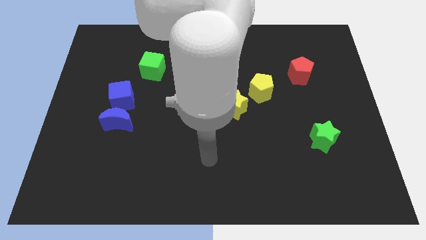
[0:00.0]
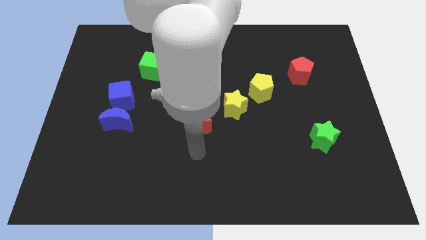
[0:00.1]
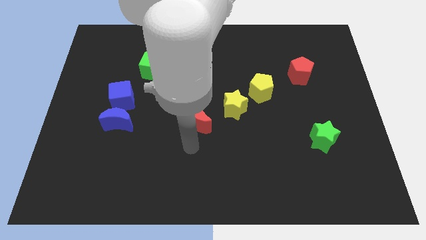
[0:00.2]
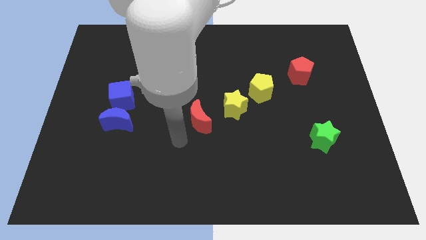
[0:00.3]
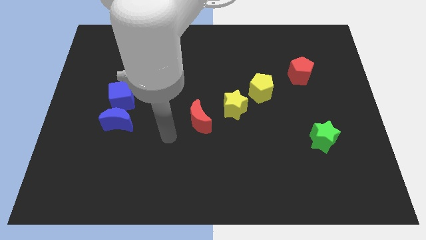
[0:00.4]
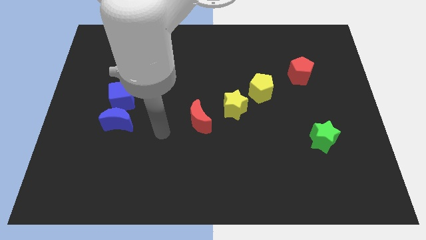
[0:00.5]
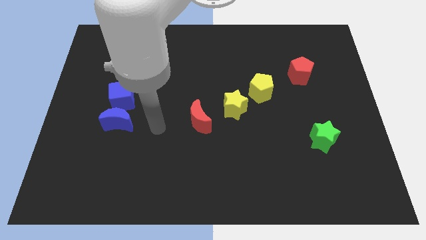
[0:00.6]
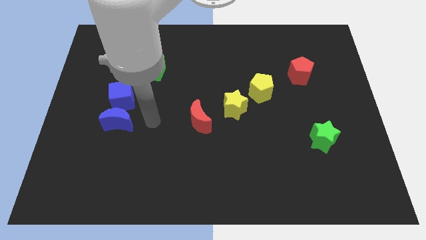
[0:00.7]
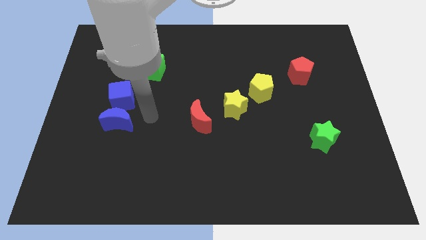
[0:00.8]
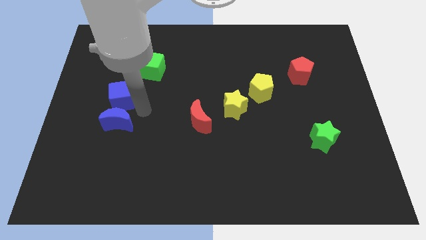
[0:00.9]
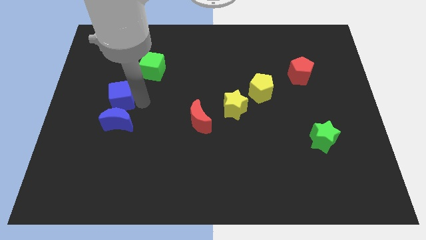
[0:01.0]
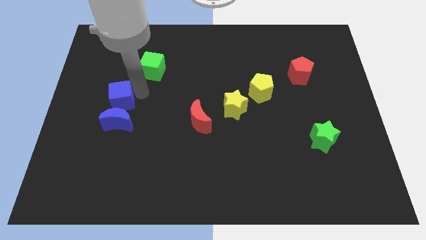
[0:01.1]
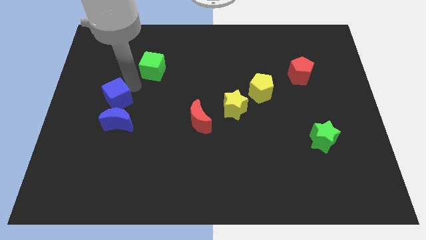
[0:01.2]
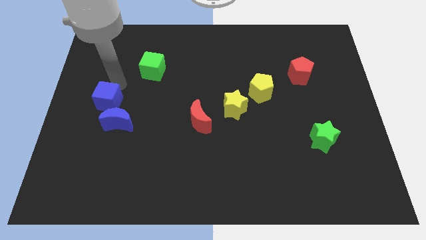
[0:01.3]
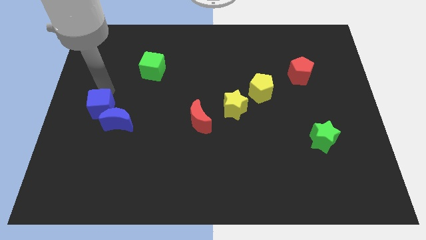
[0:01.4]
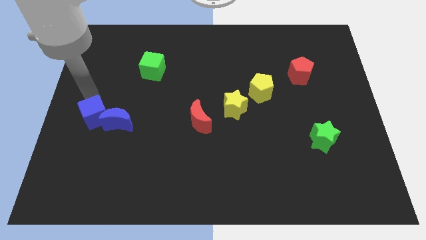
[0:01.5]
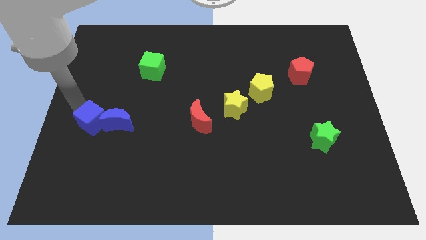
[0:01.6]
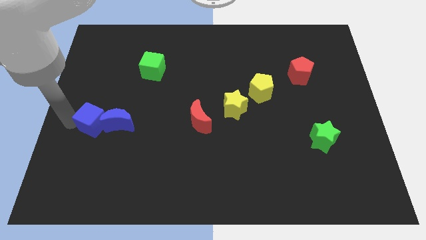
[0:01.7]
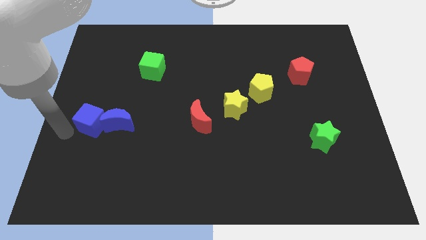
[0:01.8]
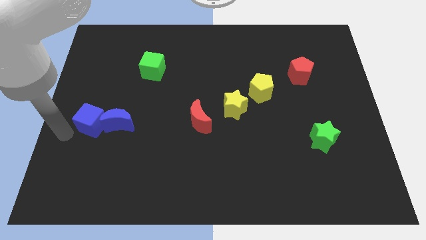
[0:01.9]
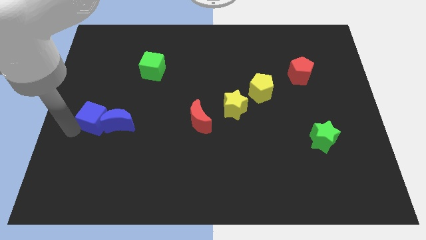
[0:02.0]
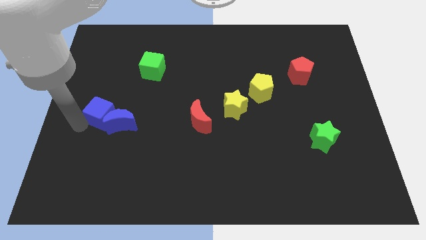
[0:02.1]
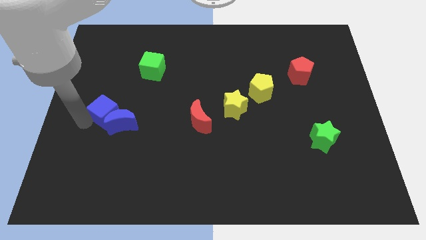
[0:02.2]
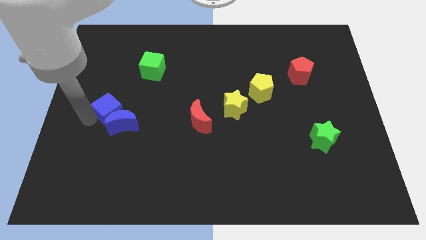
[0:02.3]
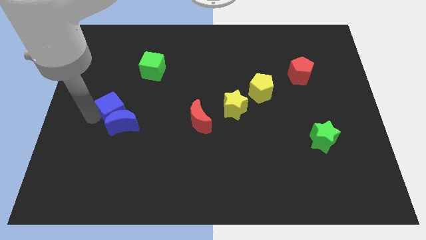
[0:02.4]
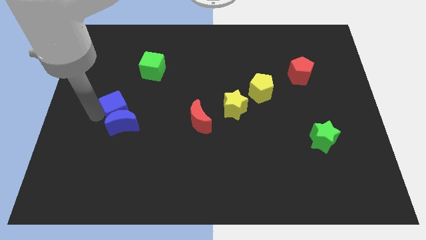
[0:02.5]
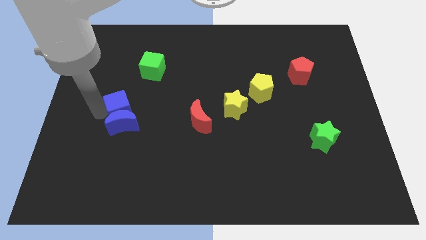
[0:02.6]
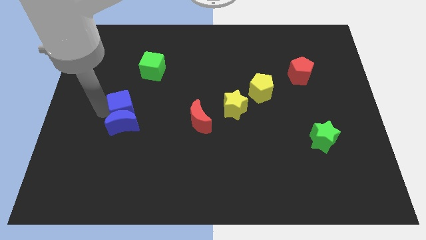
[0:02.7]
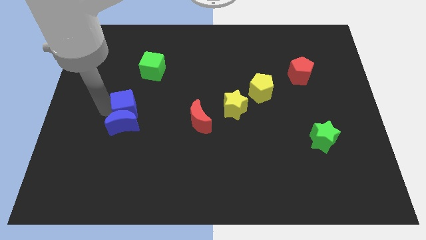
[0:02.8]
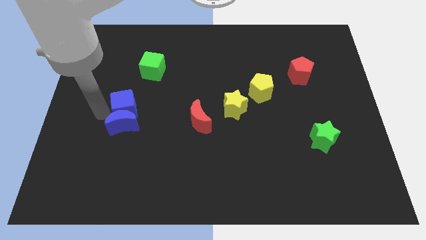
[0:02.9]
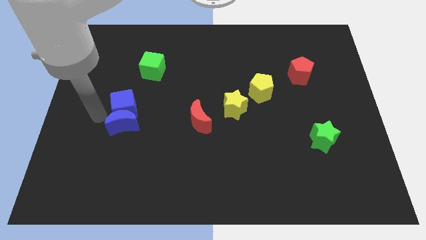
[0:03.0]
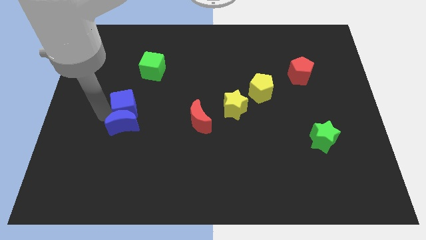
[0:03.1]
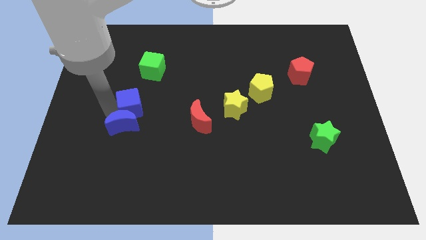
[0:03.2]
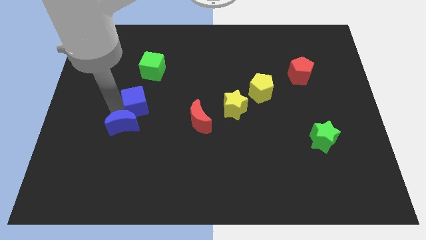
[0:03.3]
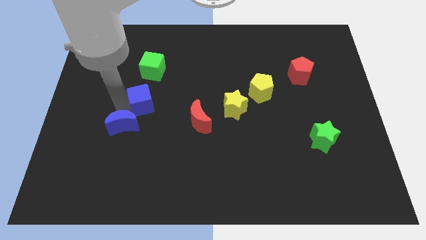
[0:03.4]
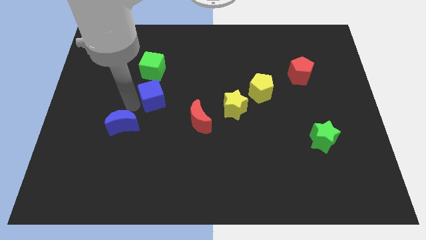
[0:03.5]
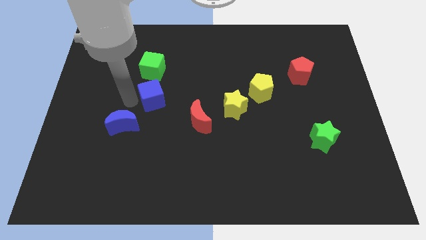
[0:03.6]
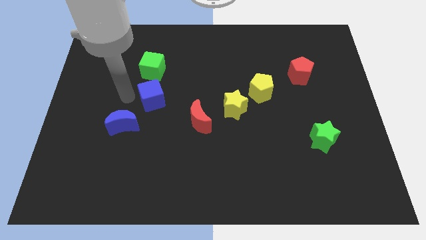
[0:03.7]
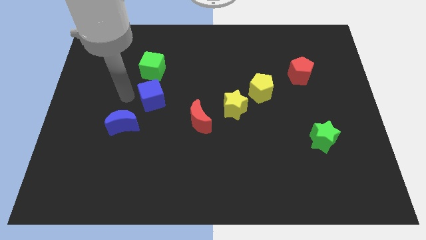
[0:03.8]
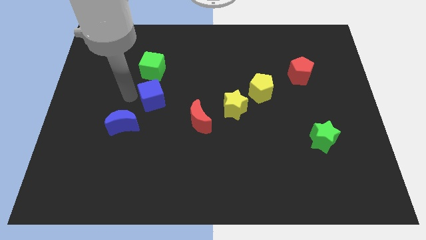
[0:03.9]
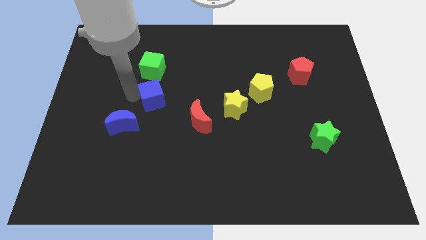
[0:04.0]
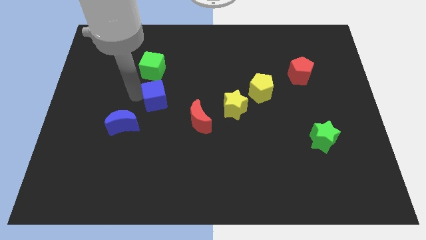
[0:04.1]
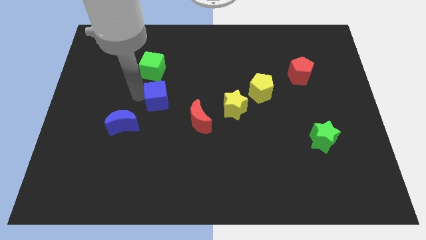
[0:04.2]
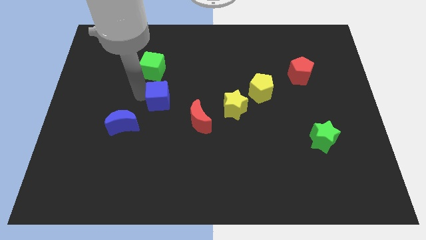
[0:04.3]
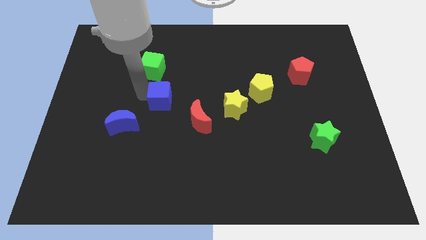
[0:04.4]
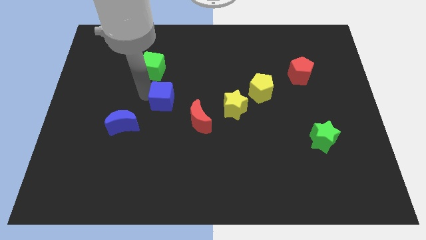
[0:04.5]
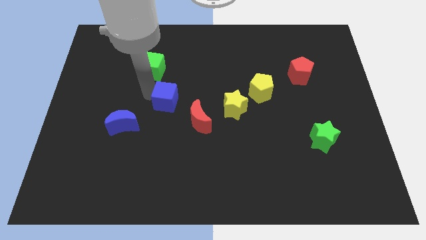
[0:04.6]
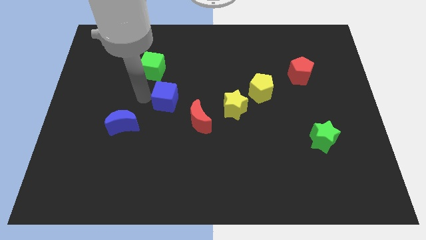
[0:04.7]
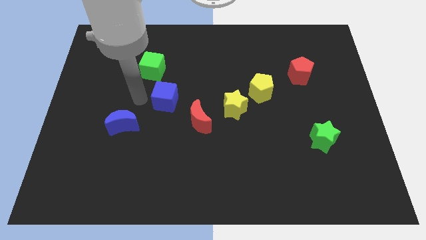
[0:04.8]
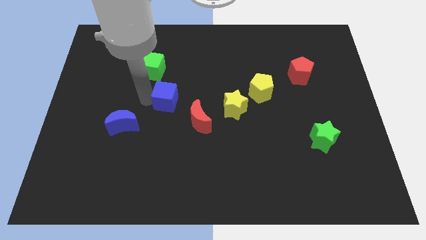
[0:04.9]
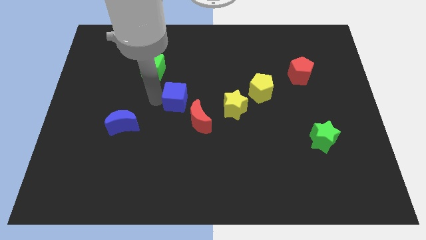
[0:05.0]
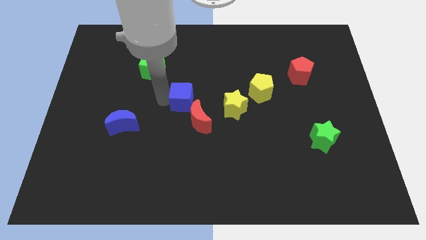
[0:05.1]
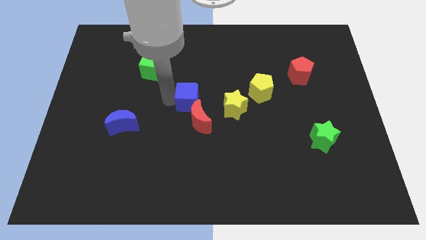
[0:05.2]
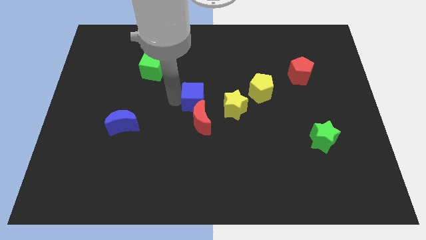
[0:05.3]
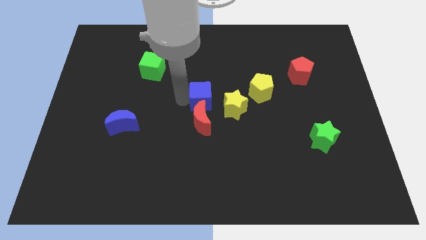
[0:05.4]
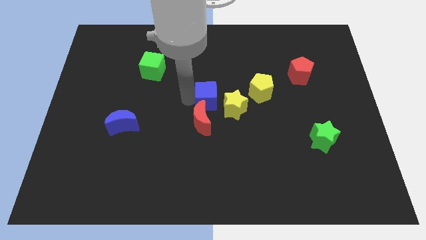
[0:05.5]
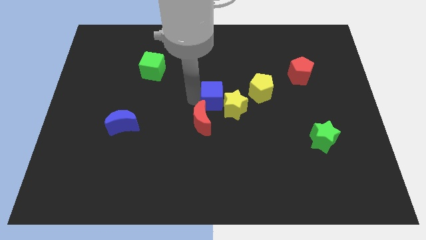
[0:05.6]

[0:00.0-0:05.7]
move the blue cube towards the yellow star

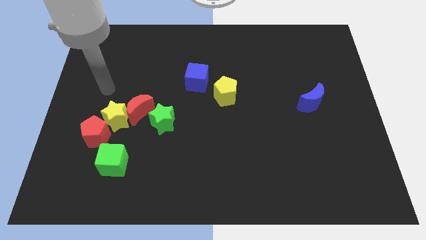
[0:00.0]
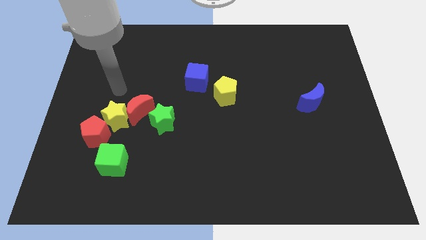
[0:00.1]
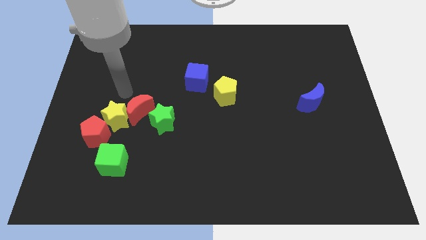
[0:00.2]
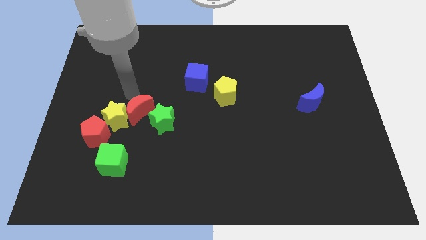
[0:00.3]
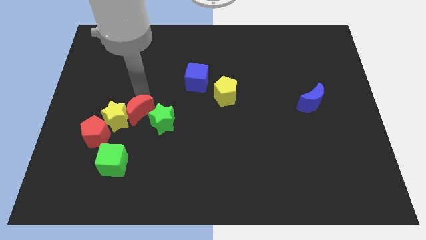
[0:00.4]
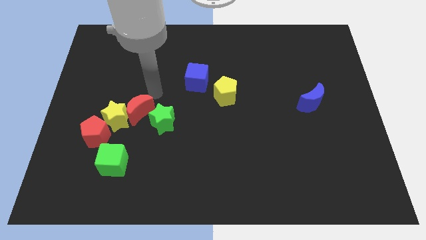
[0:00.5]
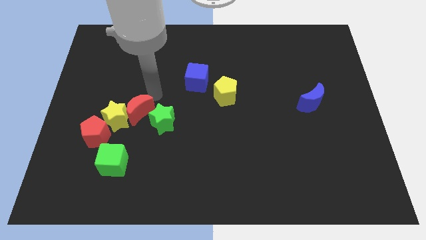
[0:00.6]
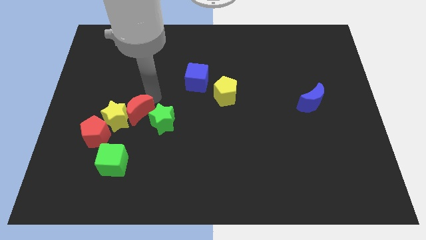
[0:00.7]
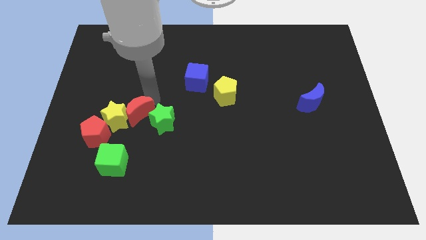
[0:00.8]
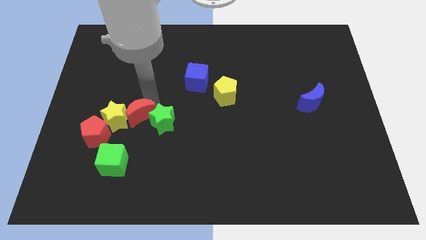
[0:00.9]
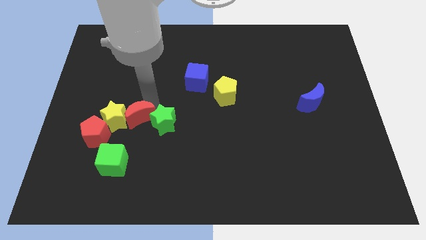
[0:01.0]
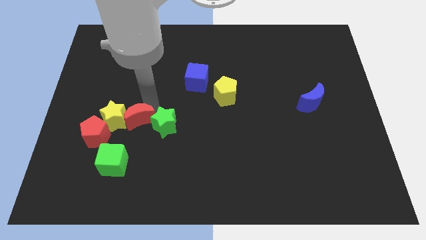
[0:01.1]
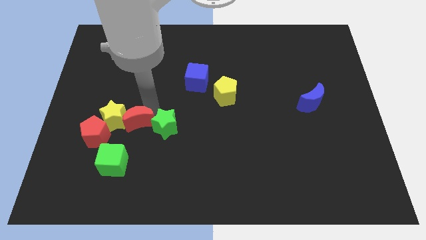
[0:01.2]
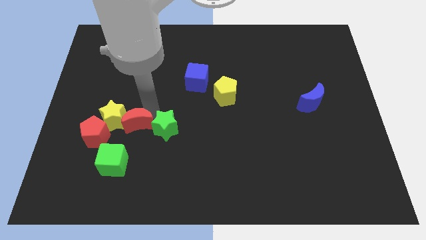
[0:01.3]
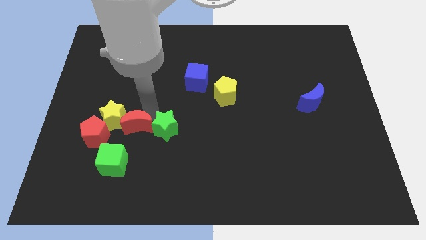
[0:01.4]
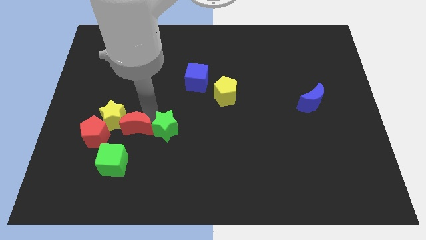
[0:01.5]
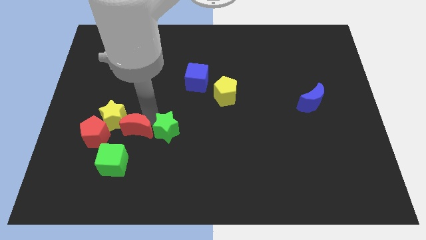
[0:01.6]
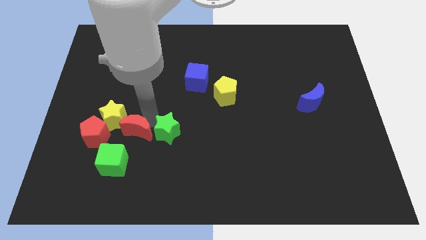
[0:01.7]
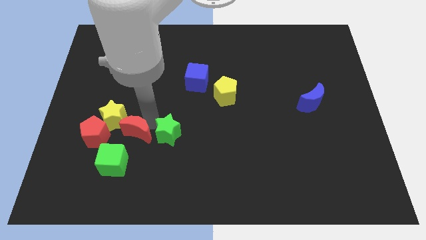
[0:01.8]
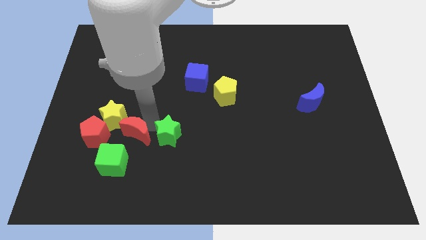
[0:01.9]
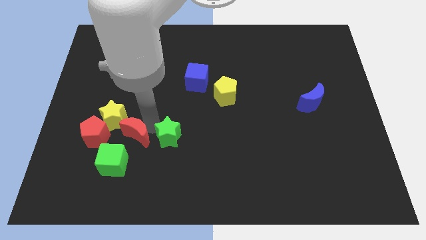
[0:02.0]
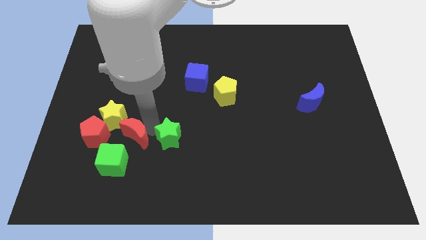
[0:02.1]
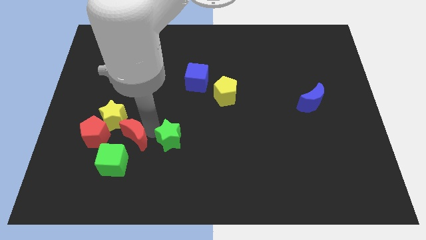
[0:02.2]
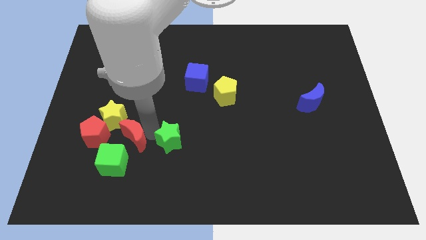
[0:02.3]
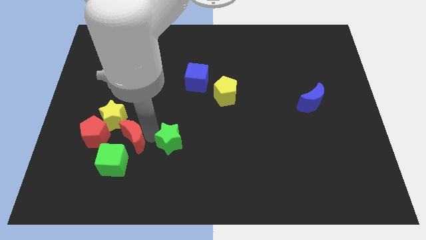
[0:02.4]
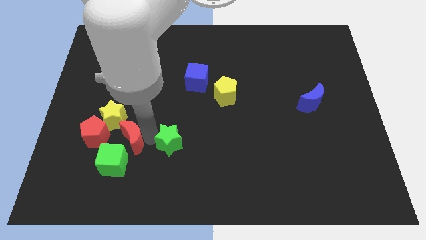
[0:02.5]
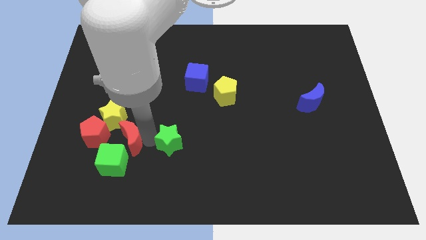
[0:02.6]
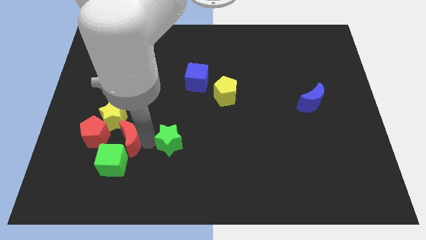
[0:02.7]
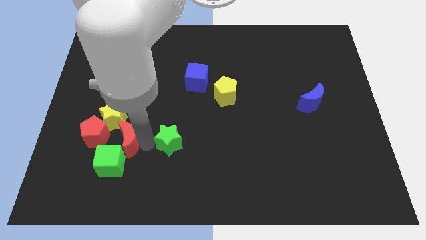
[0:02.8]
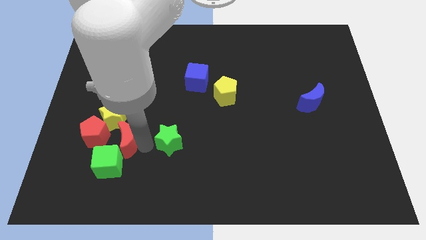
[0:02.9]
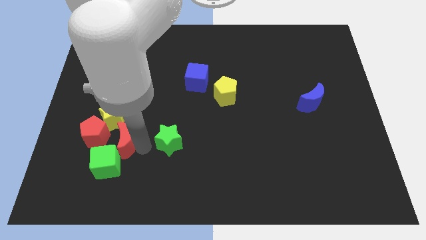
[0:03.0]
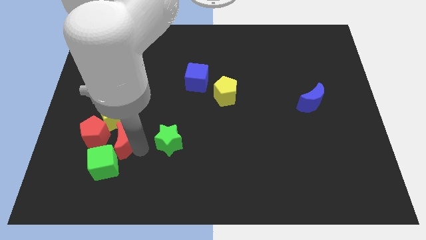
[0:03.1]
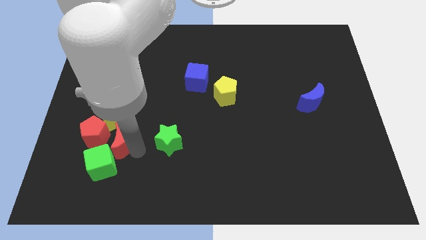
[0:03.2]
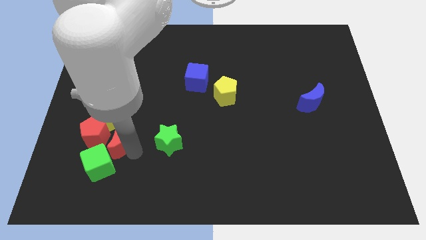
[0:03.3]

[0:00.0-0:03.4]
slide the red moon close to the red pentagon
